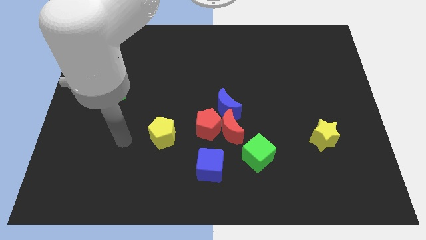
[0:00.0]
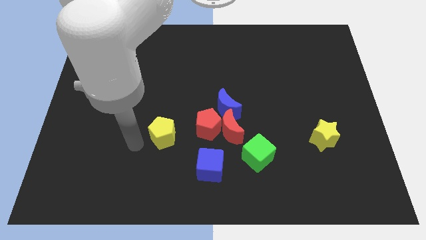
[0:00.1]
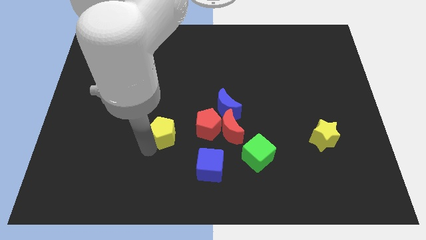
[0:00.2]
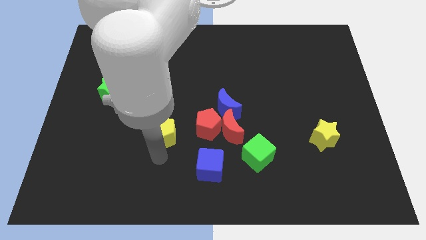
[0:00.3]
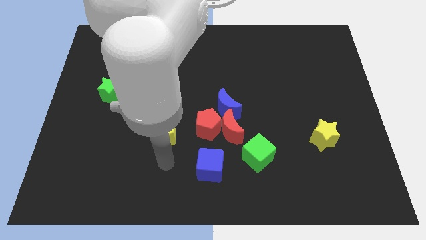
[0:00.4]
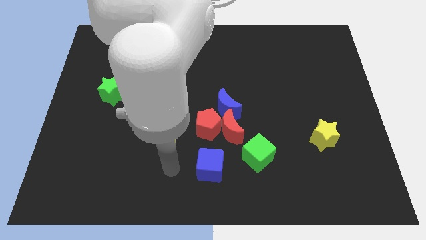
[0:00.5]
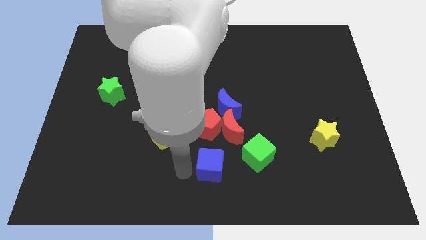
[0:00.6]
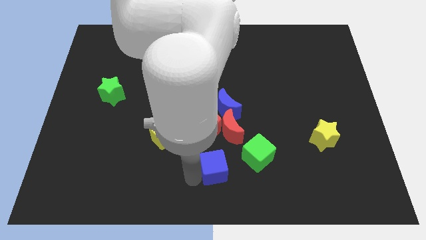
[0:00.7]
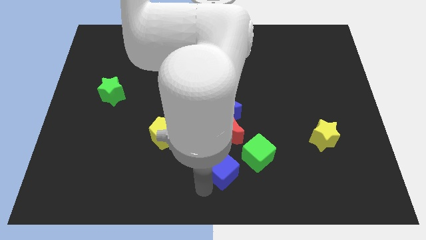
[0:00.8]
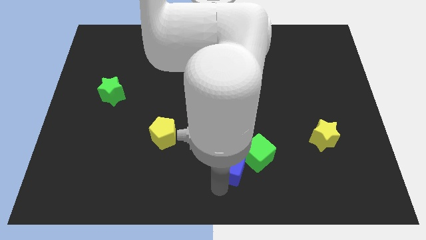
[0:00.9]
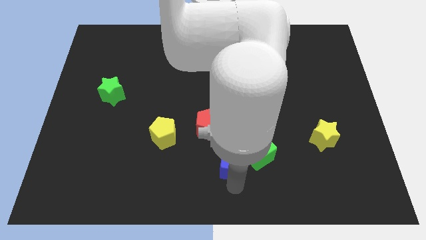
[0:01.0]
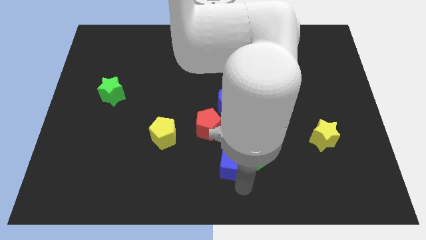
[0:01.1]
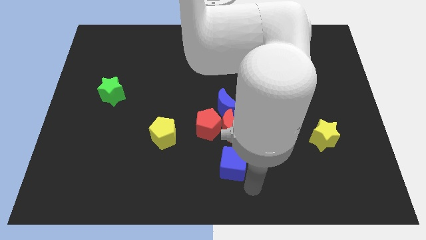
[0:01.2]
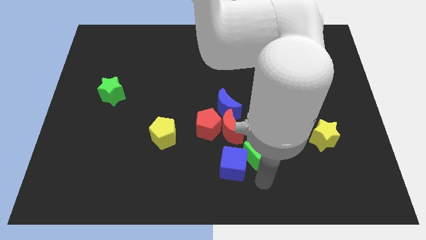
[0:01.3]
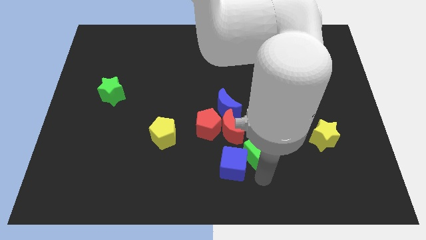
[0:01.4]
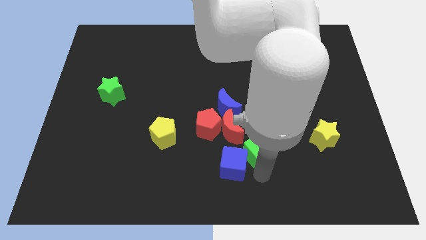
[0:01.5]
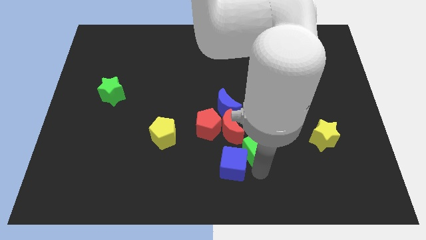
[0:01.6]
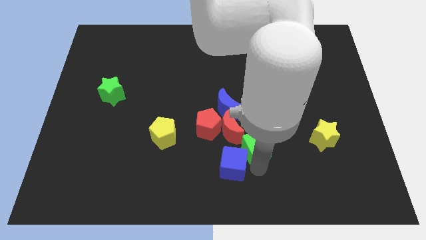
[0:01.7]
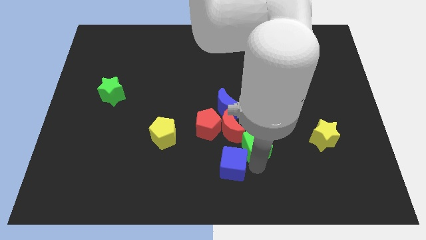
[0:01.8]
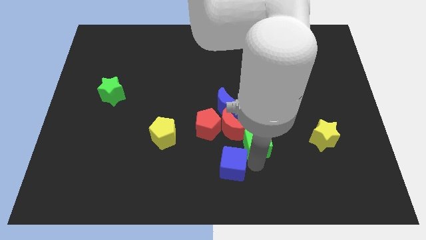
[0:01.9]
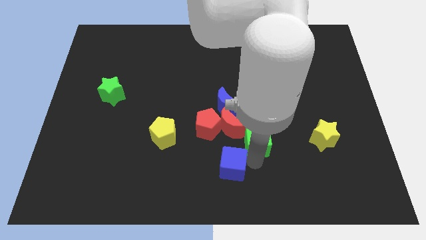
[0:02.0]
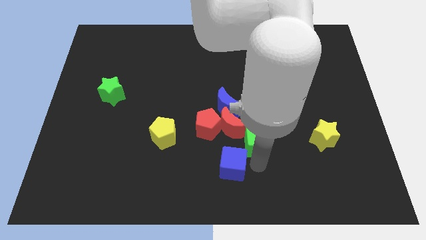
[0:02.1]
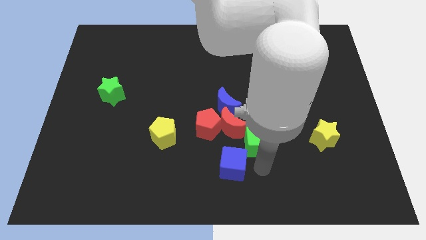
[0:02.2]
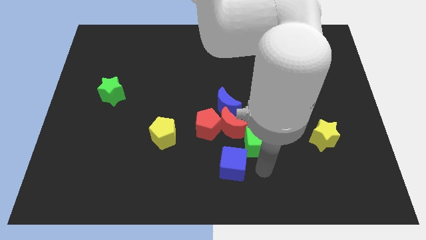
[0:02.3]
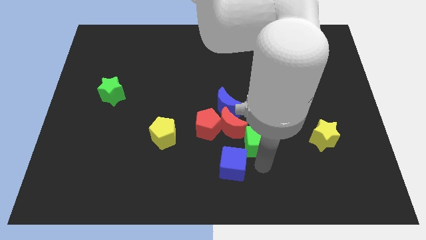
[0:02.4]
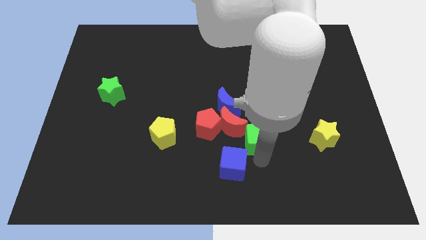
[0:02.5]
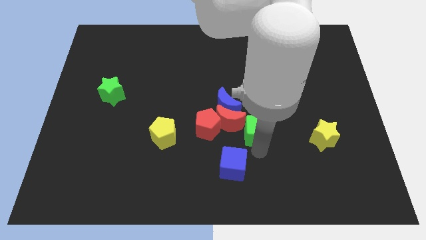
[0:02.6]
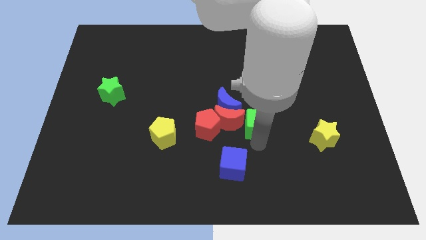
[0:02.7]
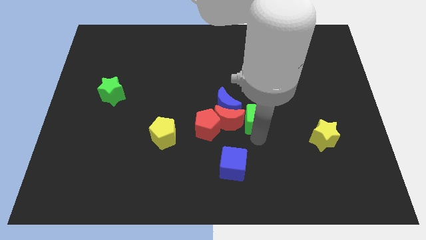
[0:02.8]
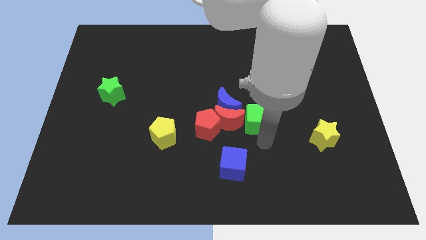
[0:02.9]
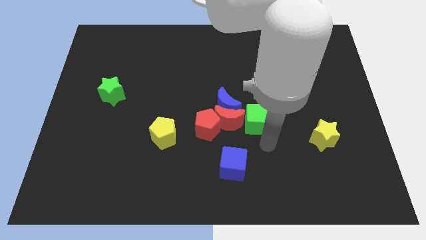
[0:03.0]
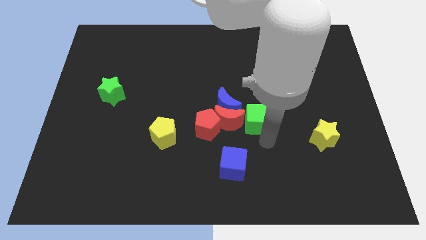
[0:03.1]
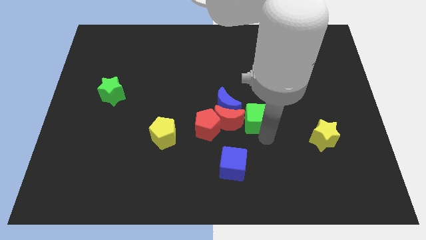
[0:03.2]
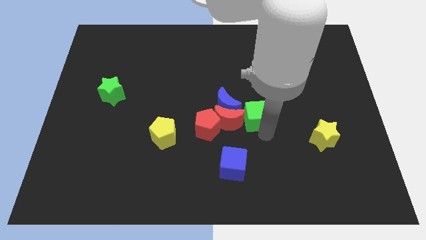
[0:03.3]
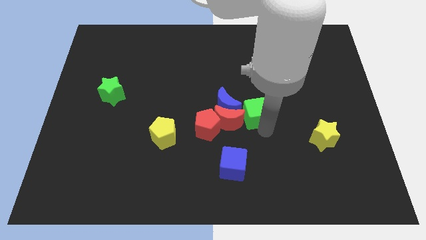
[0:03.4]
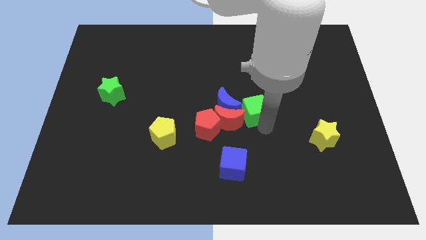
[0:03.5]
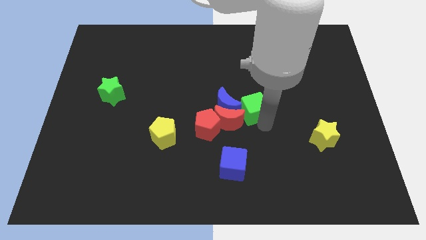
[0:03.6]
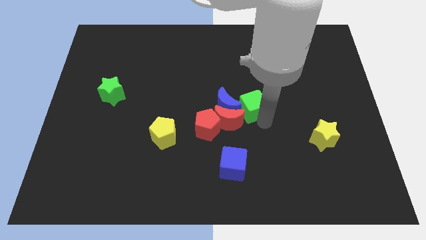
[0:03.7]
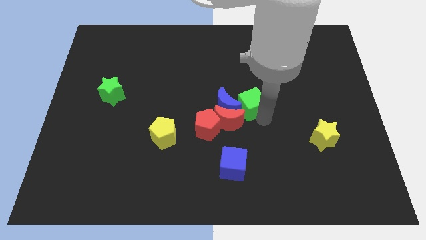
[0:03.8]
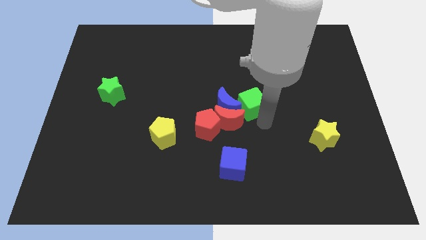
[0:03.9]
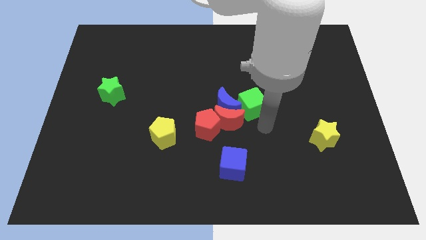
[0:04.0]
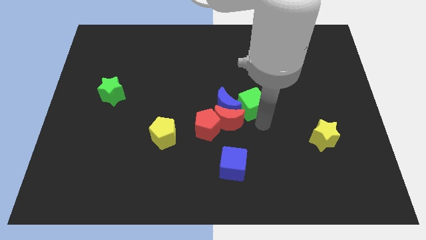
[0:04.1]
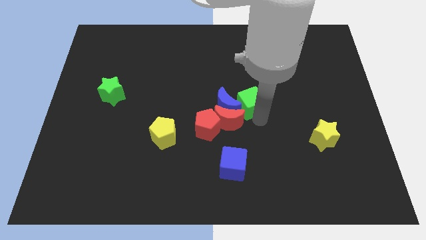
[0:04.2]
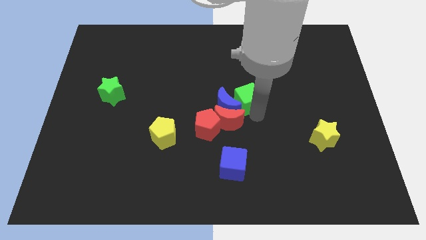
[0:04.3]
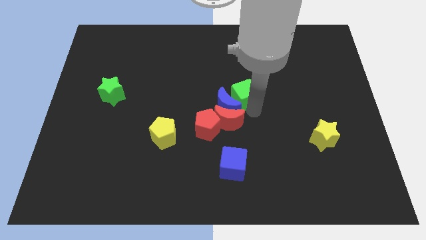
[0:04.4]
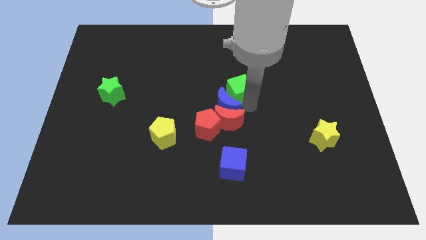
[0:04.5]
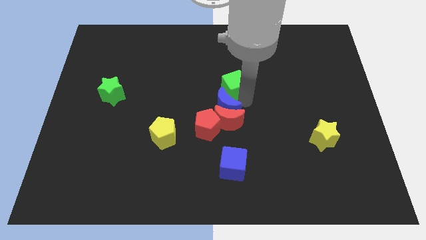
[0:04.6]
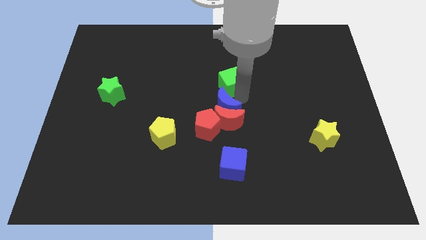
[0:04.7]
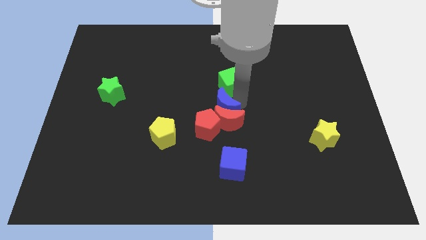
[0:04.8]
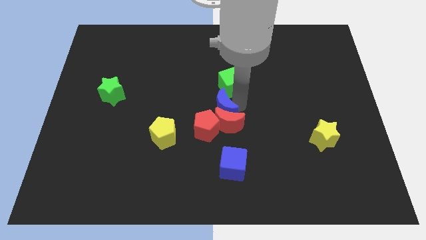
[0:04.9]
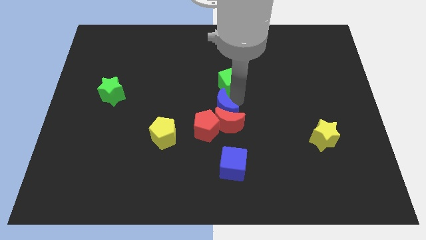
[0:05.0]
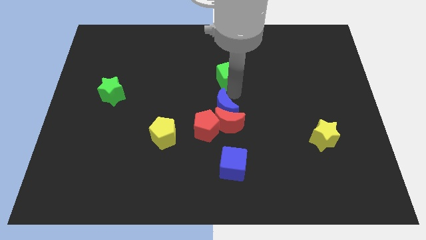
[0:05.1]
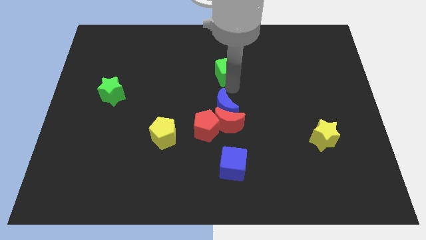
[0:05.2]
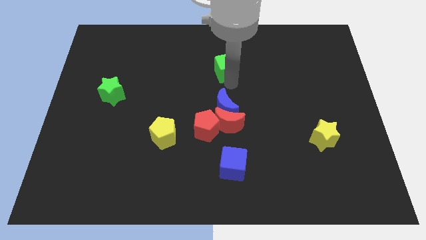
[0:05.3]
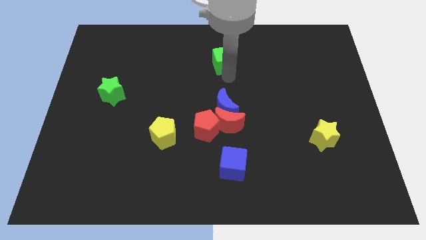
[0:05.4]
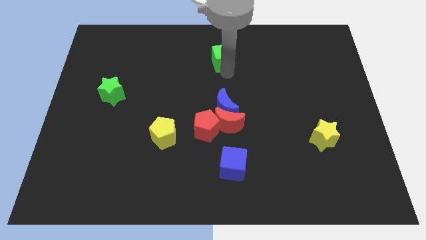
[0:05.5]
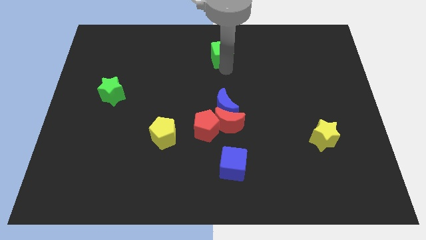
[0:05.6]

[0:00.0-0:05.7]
slide the green cube to the top
